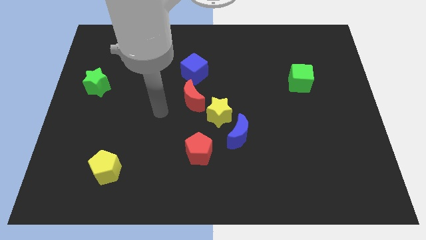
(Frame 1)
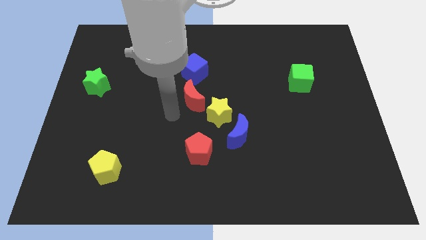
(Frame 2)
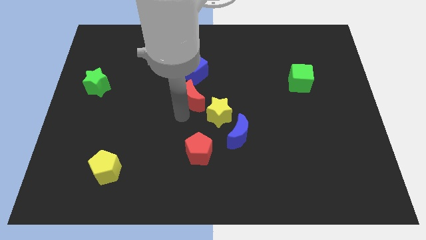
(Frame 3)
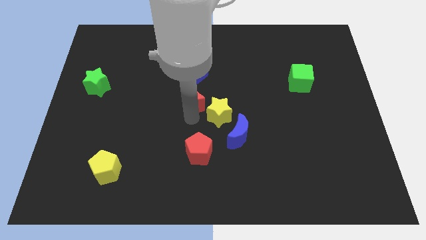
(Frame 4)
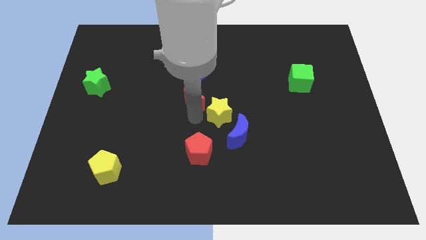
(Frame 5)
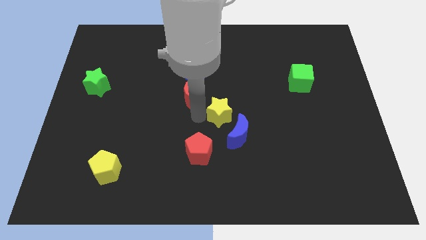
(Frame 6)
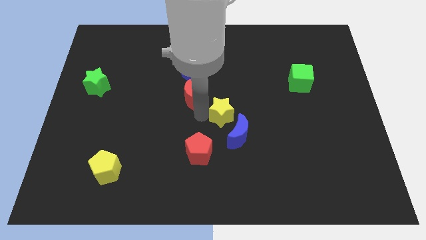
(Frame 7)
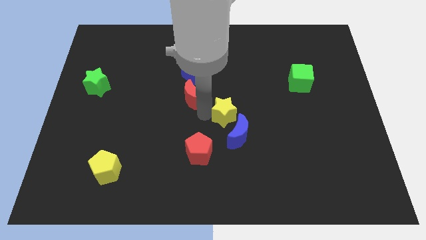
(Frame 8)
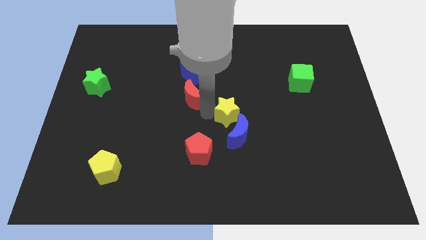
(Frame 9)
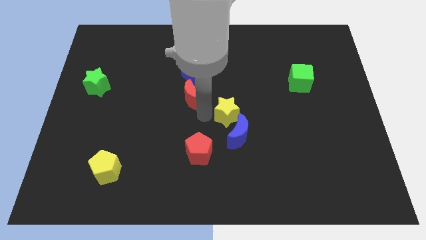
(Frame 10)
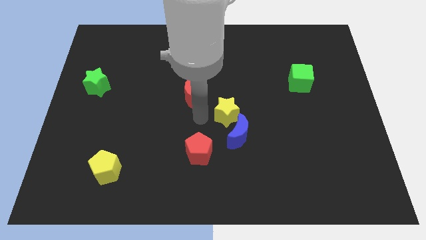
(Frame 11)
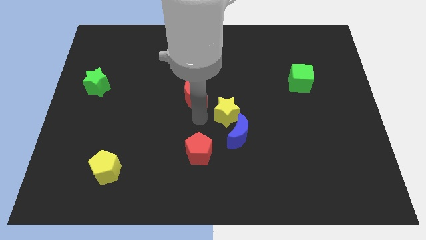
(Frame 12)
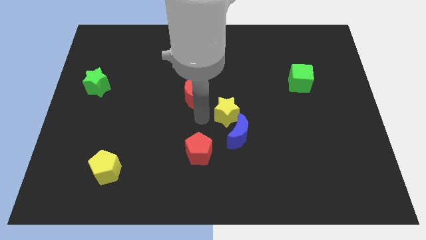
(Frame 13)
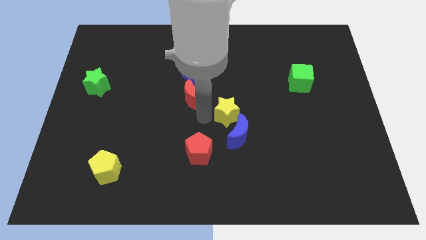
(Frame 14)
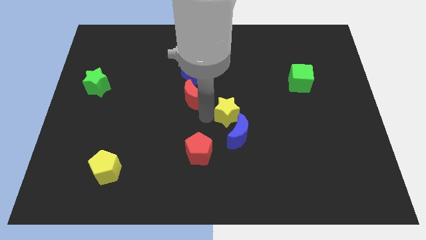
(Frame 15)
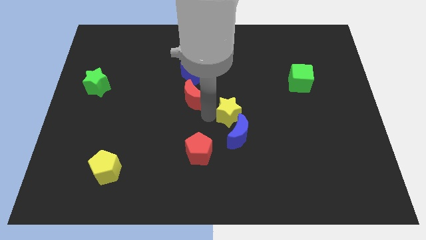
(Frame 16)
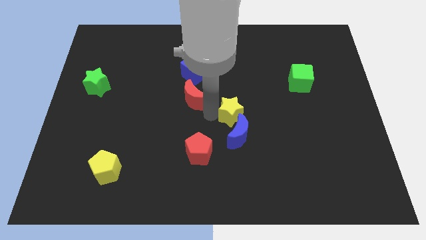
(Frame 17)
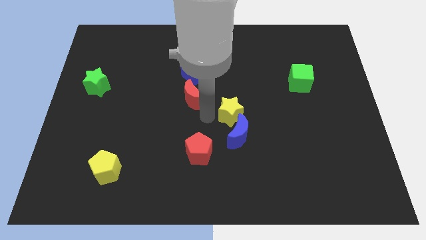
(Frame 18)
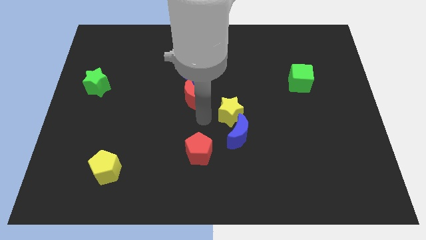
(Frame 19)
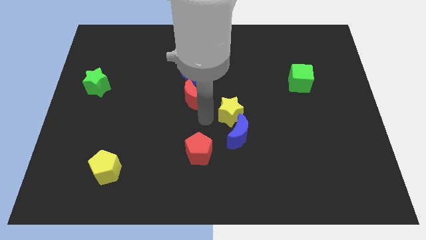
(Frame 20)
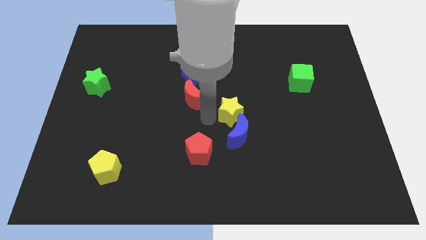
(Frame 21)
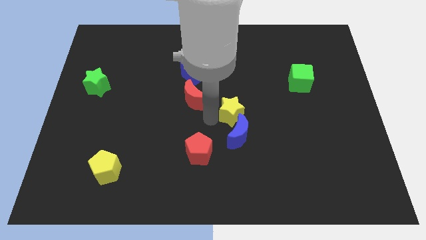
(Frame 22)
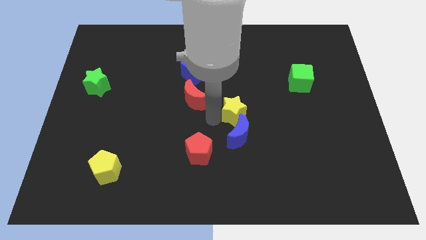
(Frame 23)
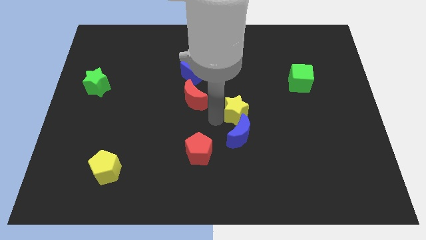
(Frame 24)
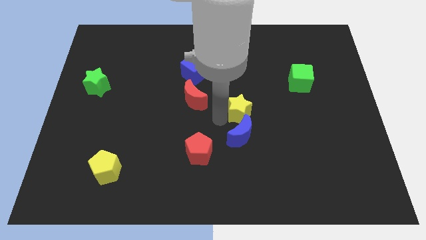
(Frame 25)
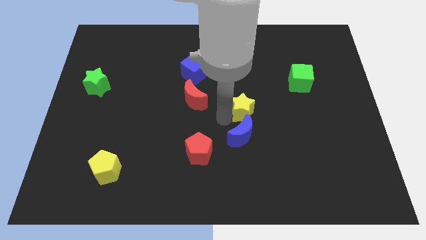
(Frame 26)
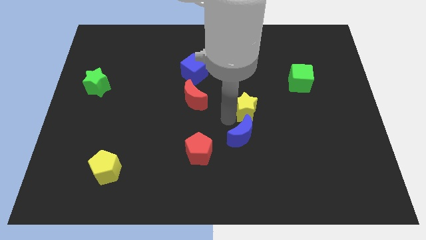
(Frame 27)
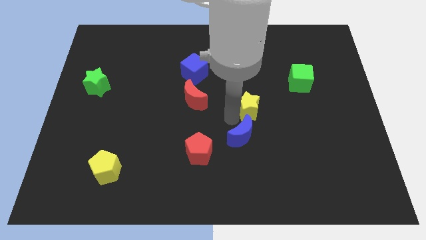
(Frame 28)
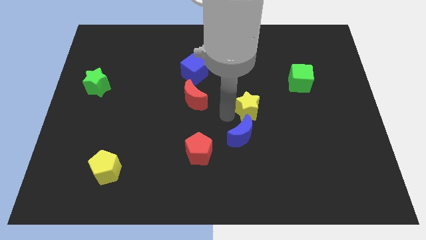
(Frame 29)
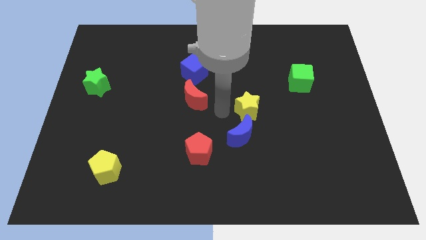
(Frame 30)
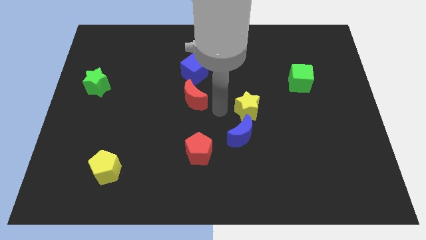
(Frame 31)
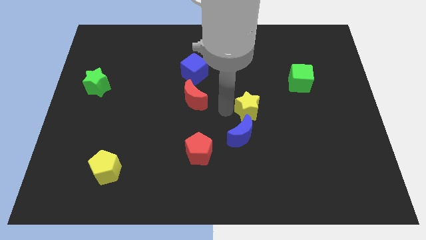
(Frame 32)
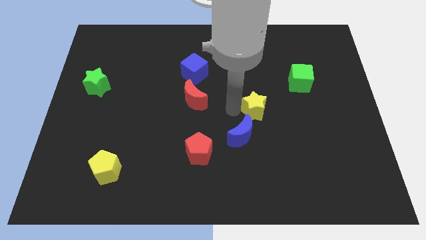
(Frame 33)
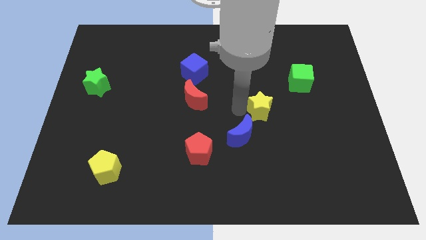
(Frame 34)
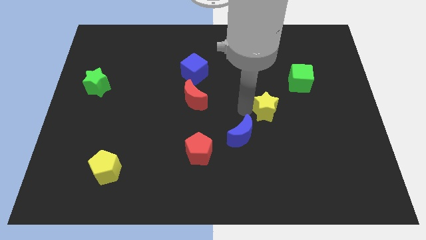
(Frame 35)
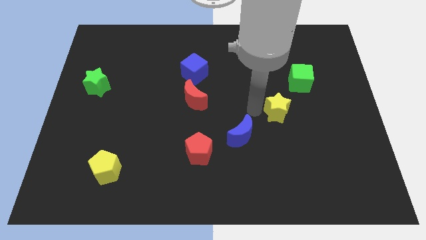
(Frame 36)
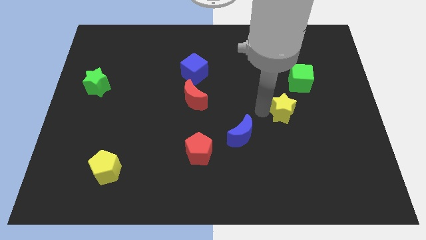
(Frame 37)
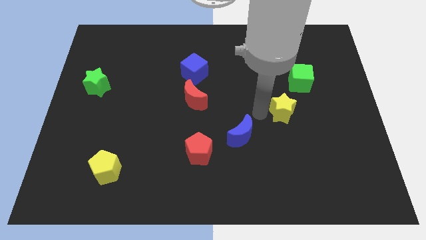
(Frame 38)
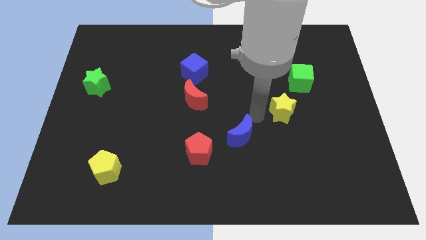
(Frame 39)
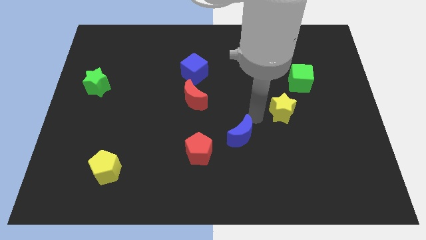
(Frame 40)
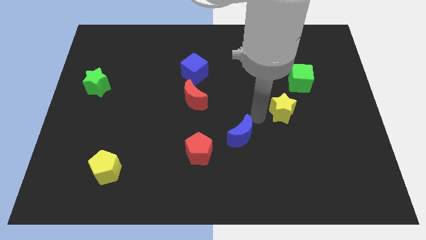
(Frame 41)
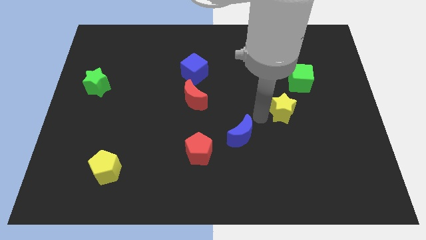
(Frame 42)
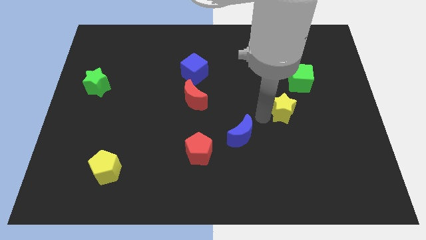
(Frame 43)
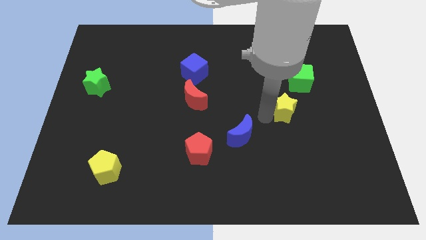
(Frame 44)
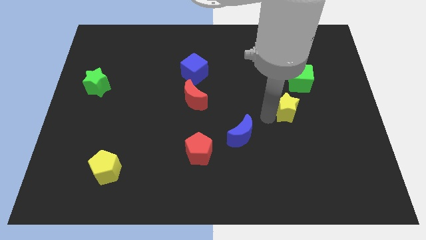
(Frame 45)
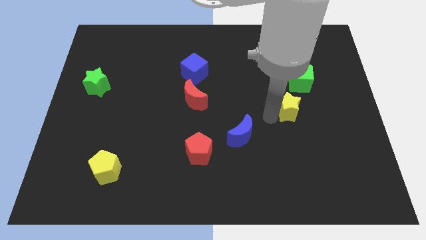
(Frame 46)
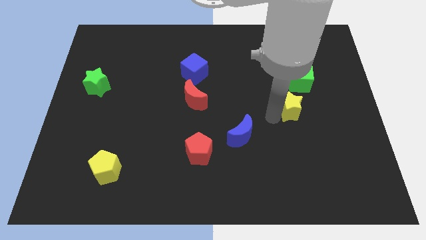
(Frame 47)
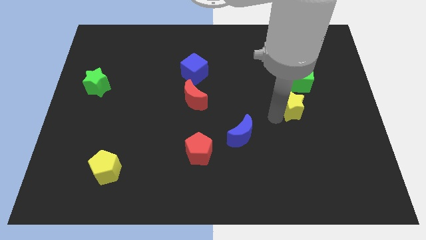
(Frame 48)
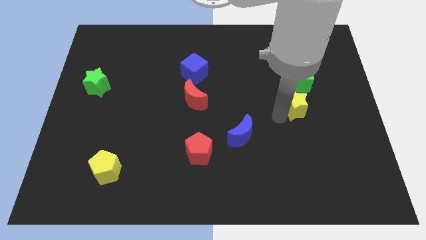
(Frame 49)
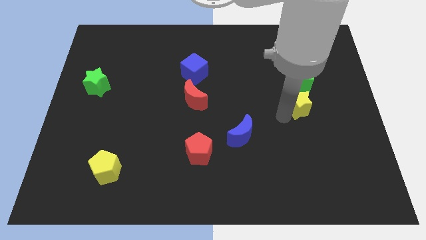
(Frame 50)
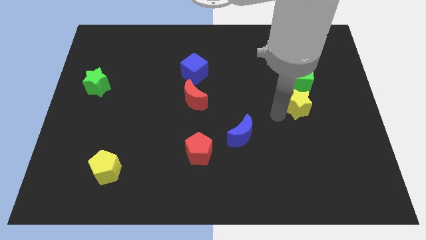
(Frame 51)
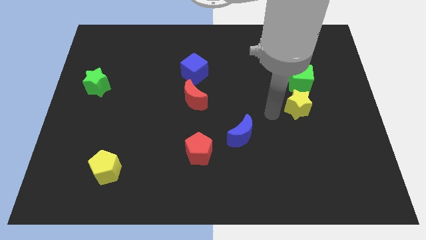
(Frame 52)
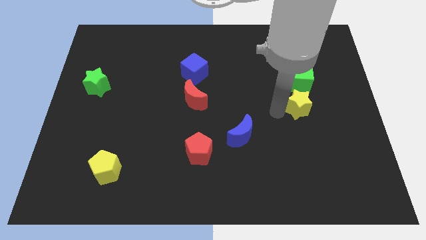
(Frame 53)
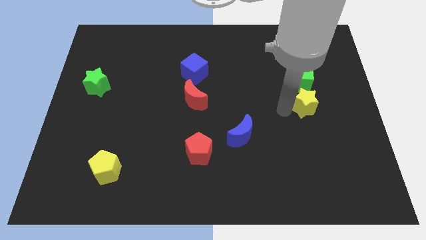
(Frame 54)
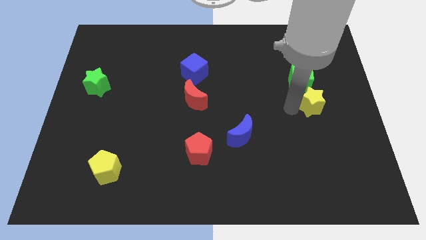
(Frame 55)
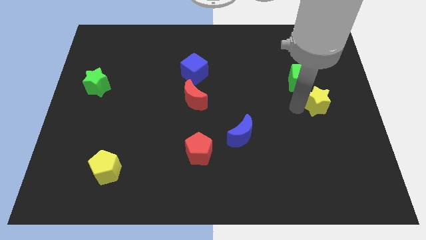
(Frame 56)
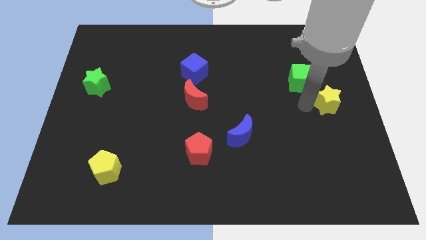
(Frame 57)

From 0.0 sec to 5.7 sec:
put the yellow star to the right side

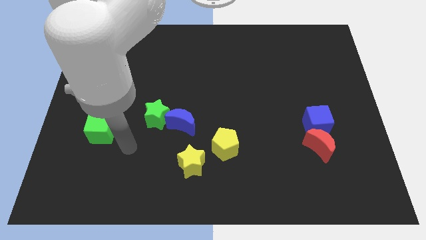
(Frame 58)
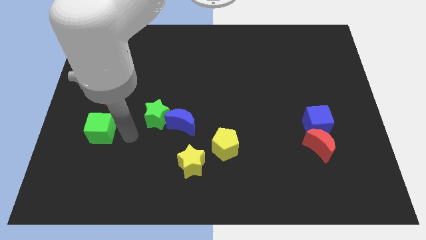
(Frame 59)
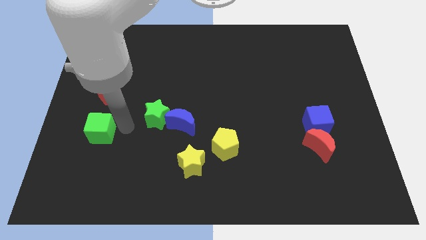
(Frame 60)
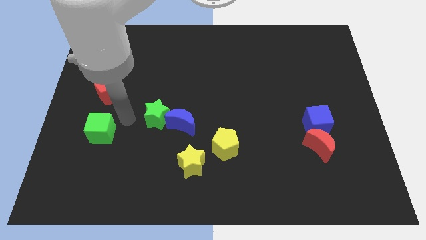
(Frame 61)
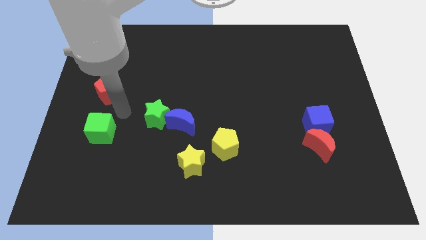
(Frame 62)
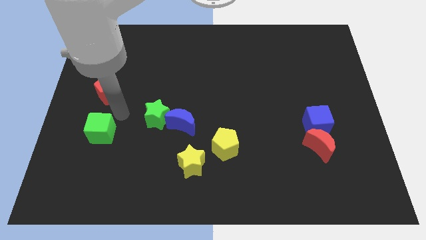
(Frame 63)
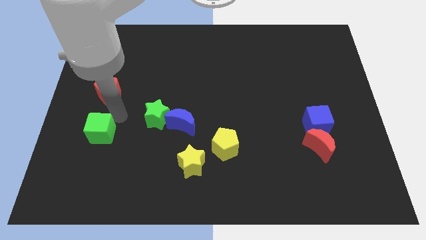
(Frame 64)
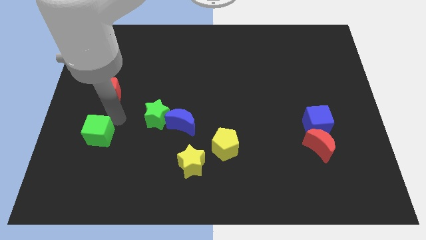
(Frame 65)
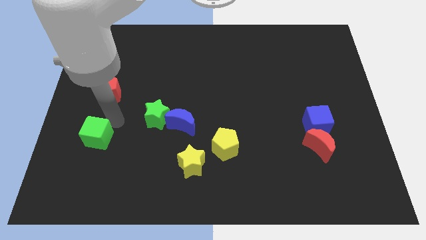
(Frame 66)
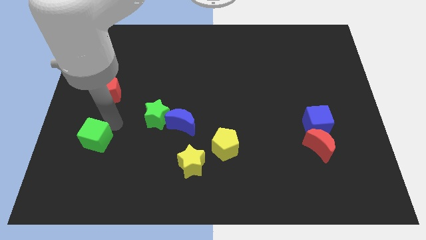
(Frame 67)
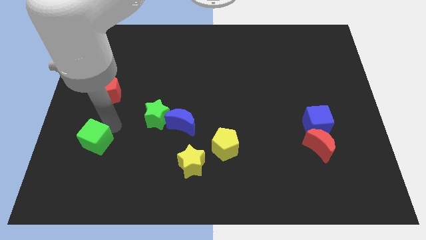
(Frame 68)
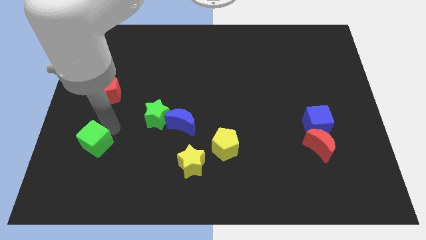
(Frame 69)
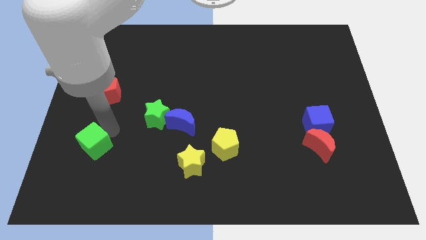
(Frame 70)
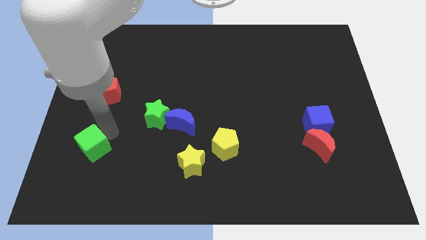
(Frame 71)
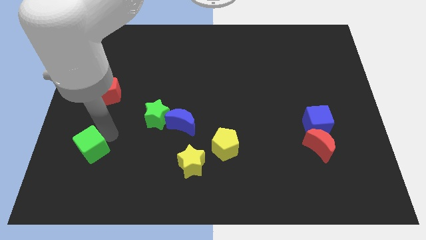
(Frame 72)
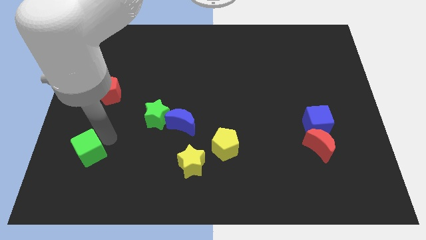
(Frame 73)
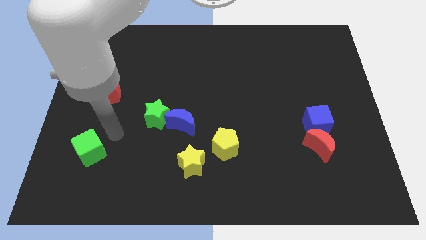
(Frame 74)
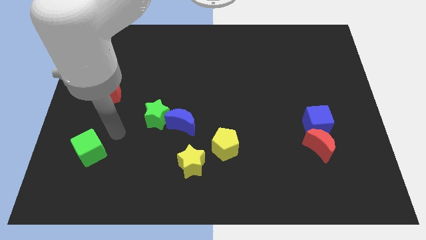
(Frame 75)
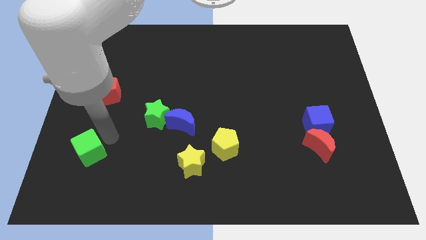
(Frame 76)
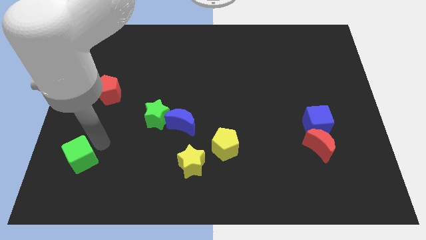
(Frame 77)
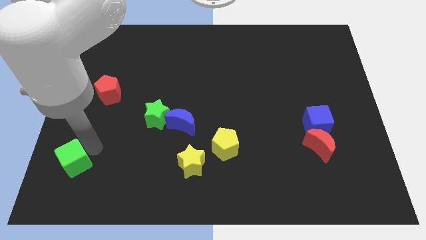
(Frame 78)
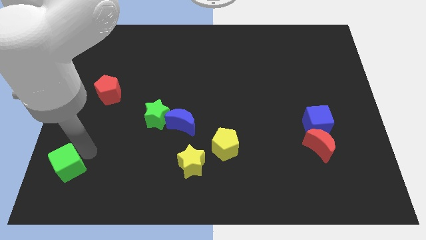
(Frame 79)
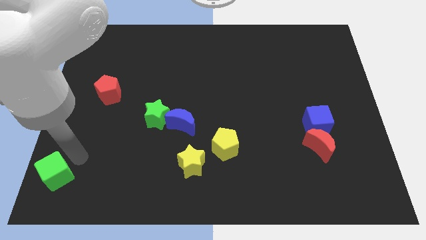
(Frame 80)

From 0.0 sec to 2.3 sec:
slide the green cube to the bottom left
